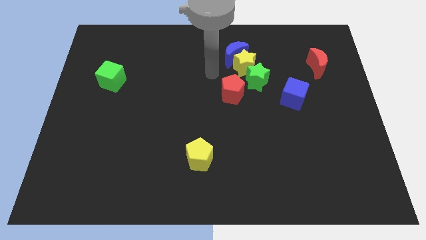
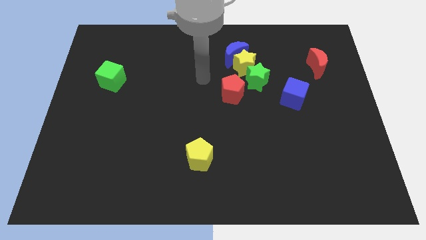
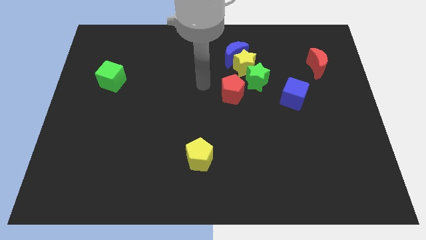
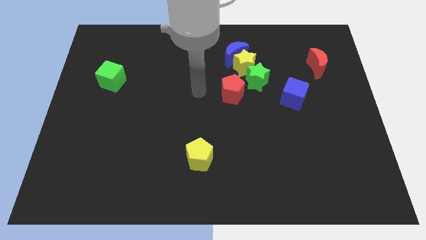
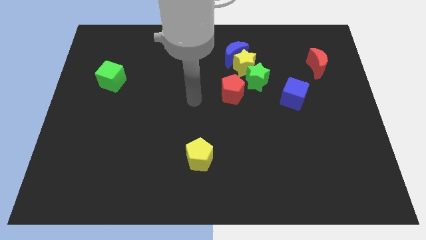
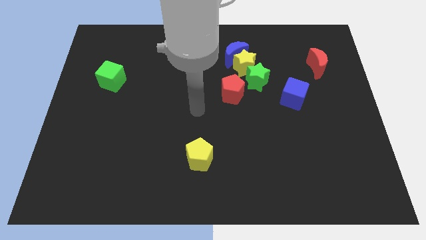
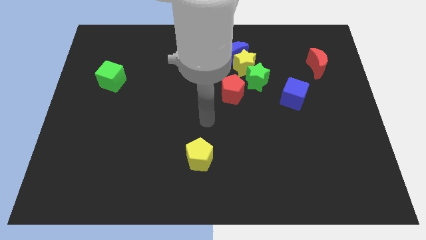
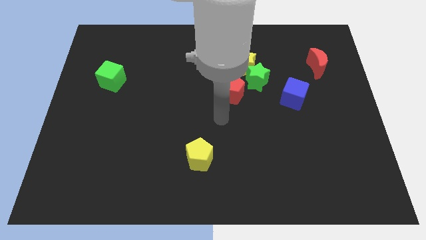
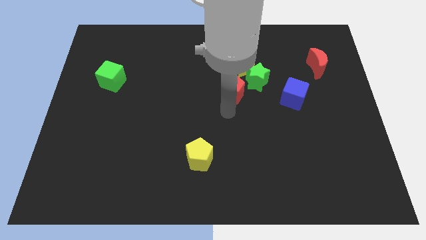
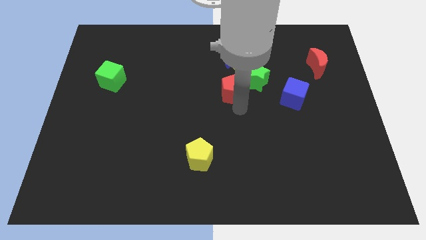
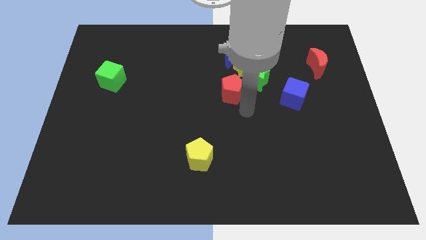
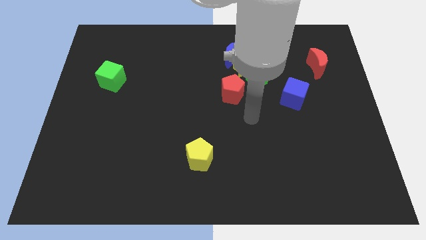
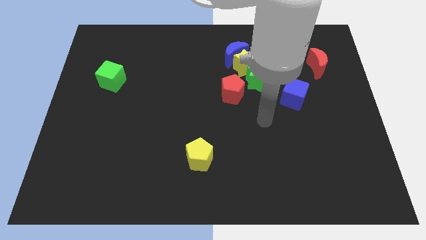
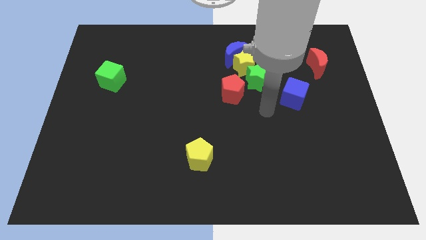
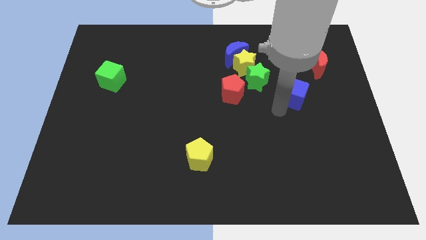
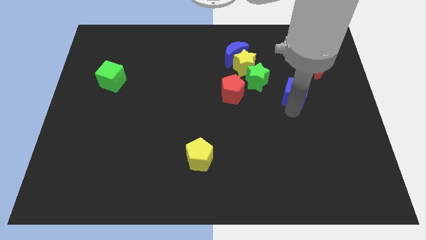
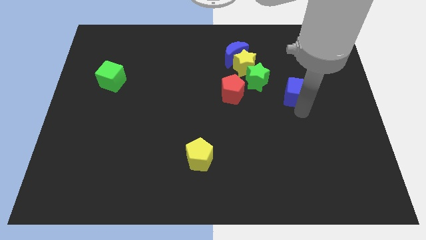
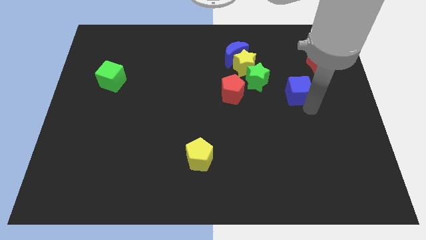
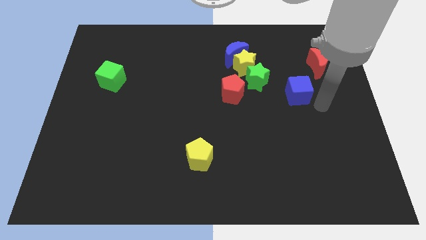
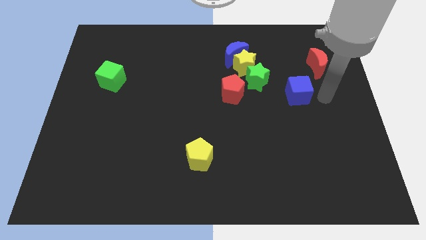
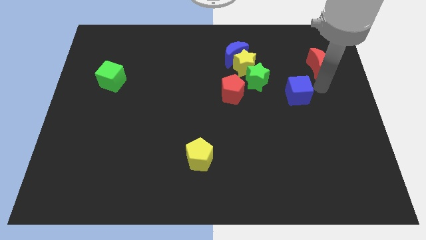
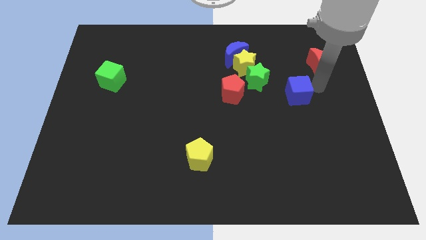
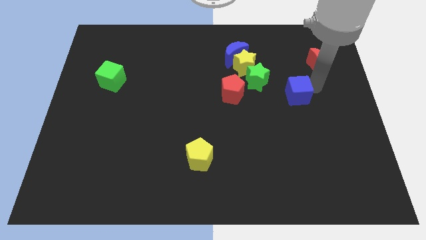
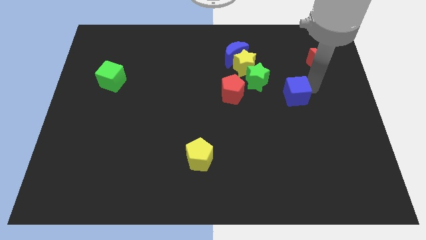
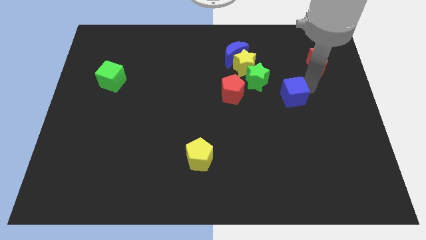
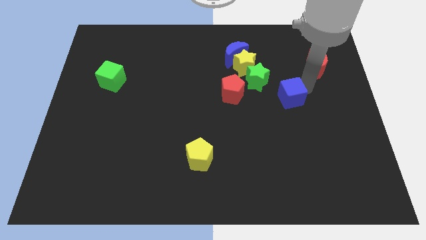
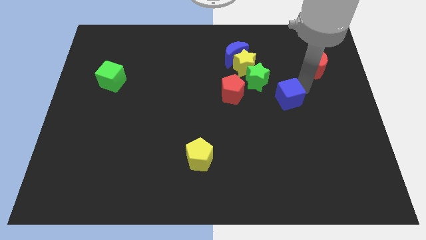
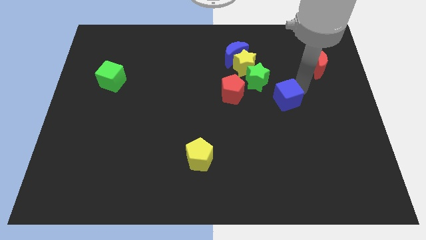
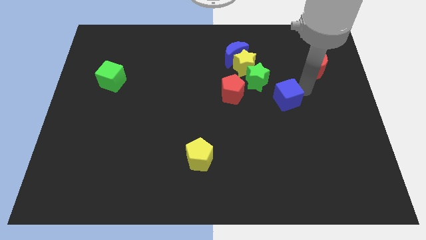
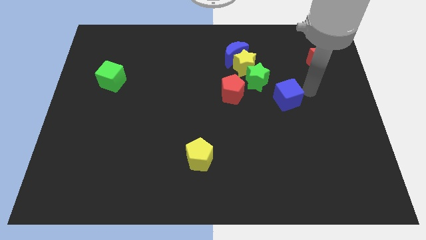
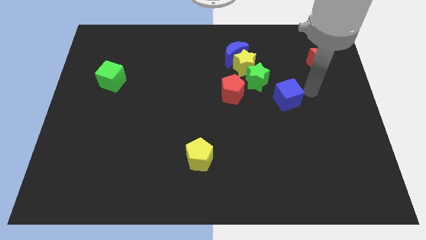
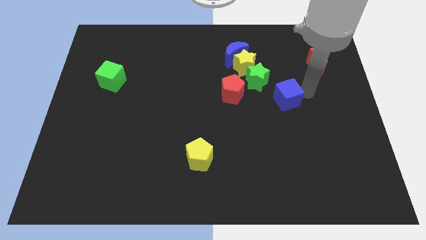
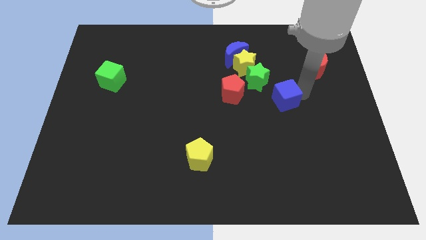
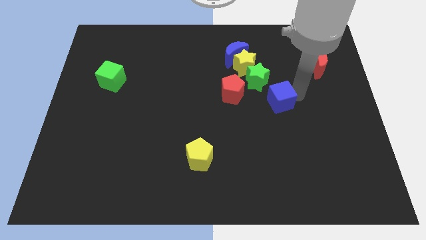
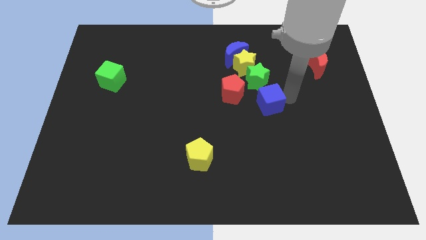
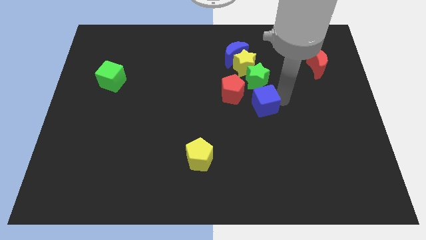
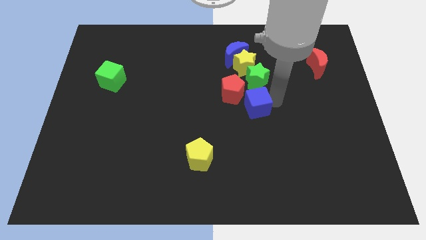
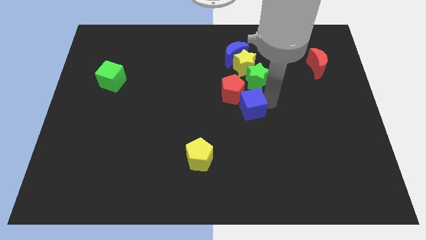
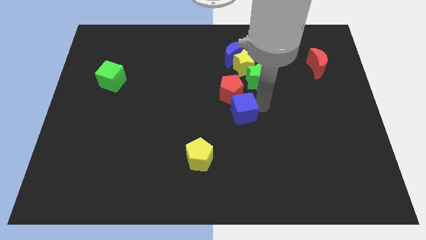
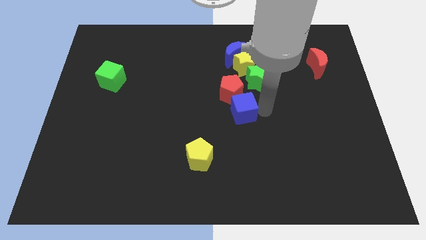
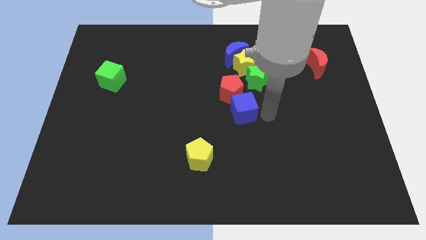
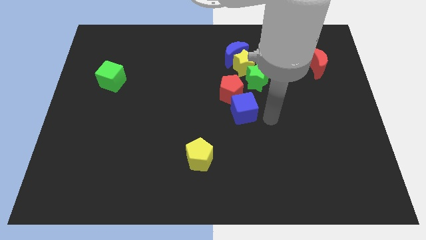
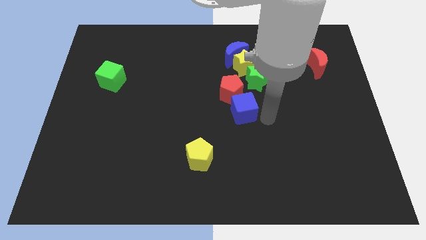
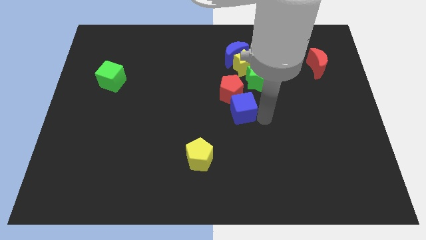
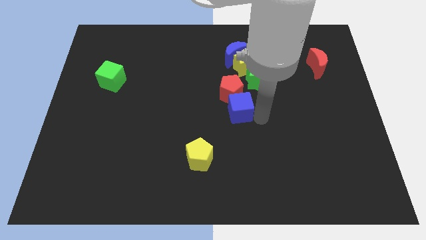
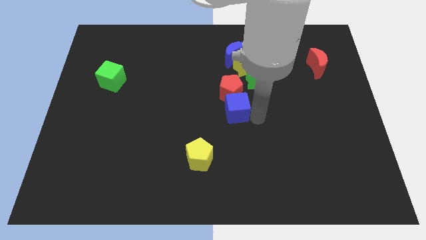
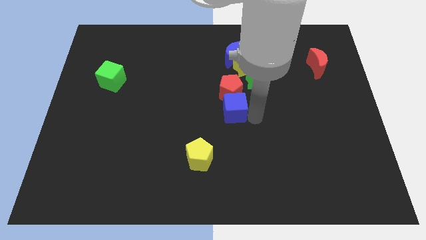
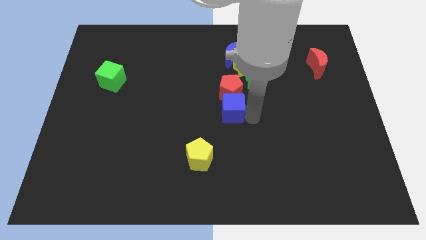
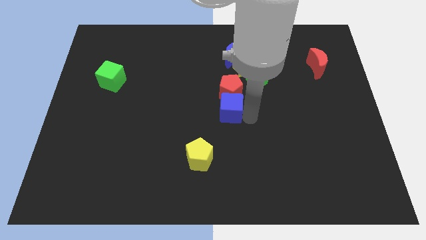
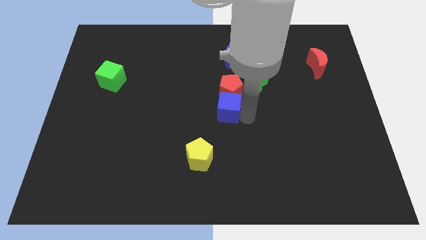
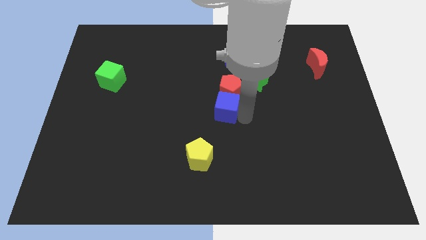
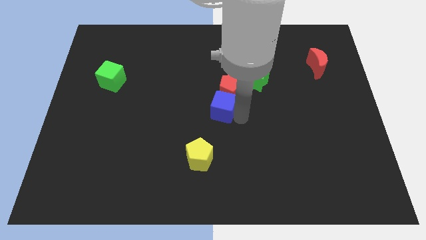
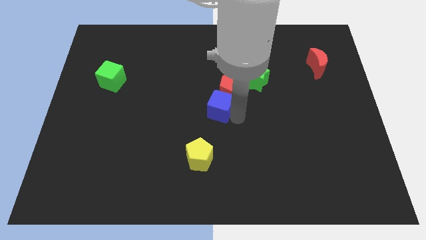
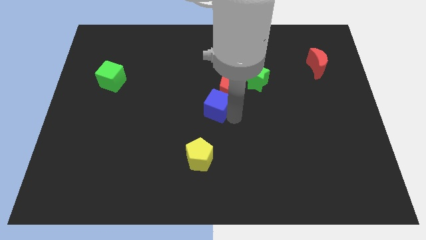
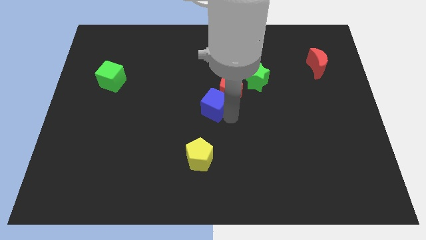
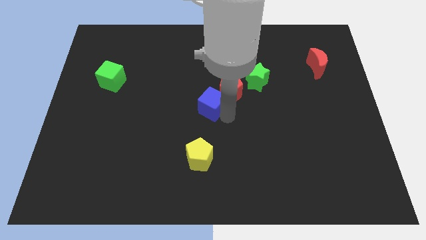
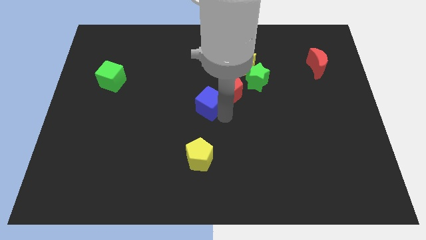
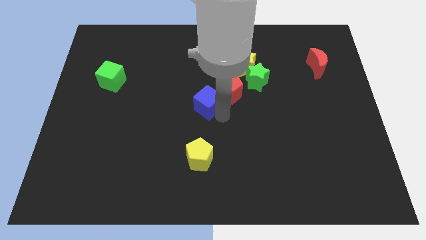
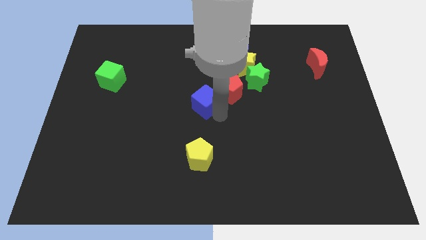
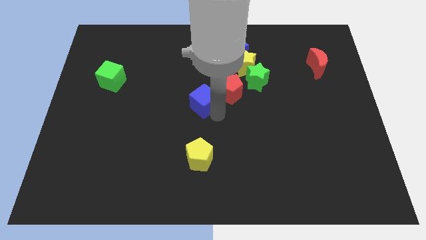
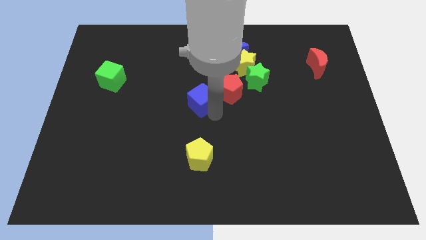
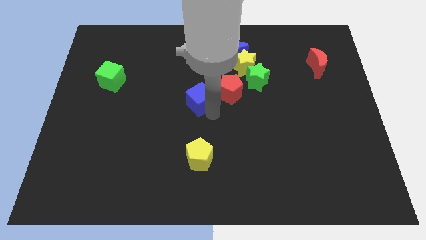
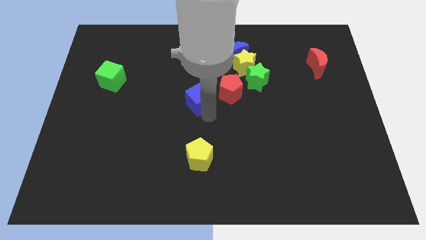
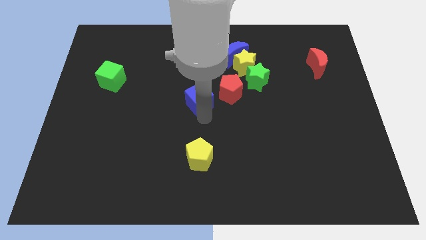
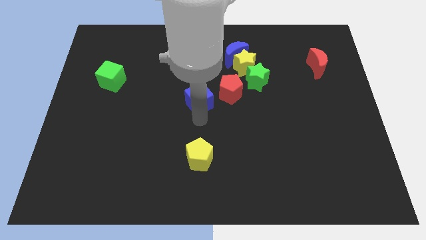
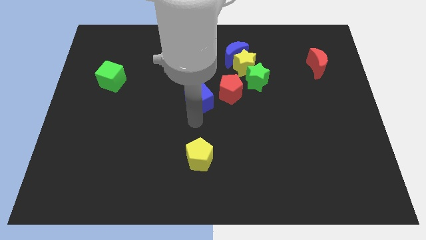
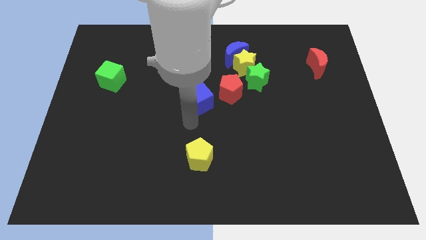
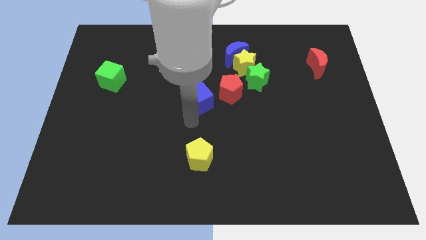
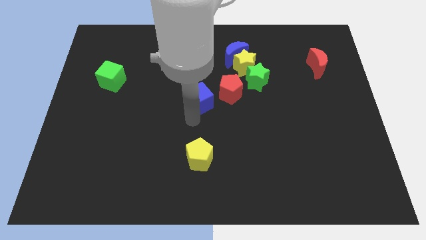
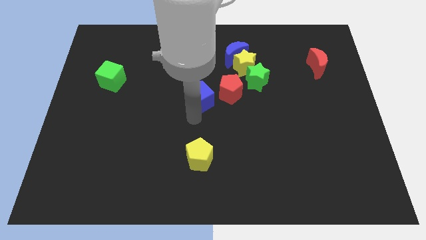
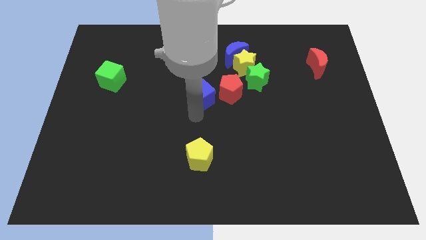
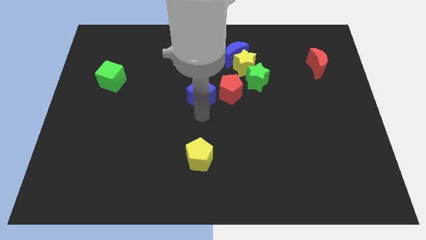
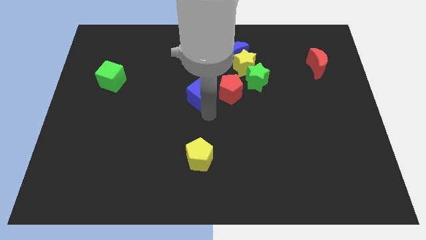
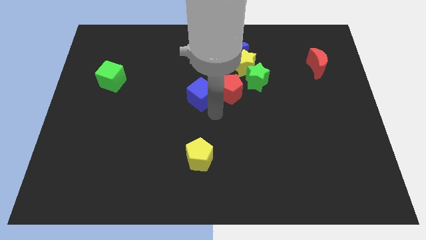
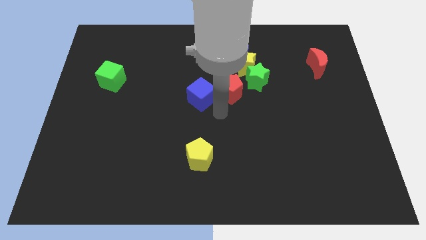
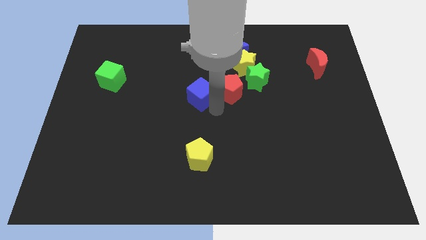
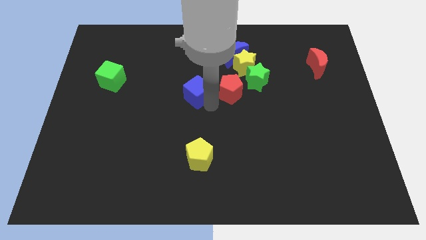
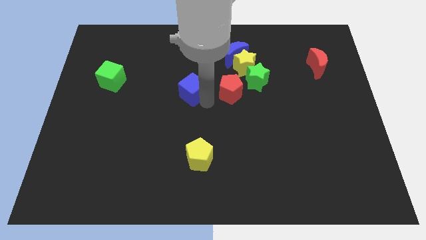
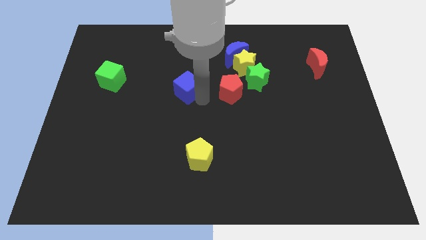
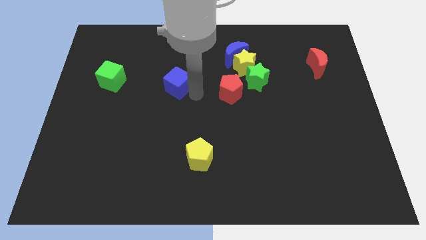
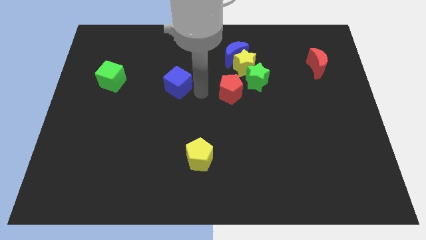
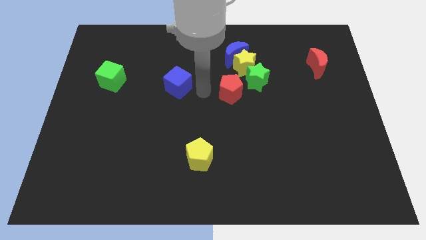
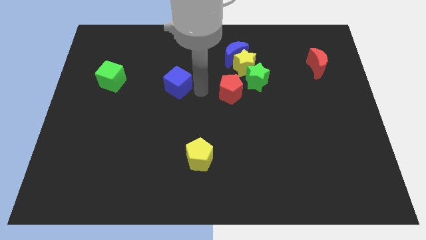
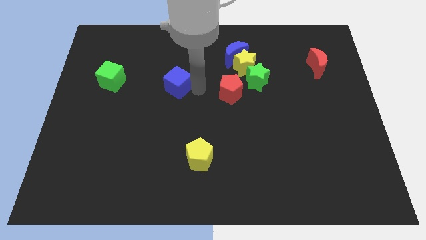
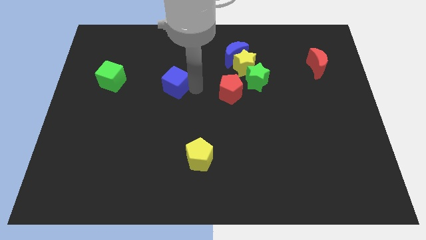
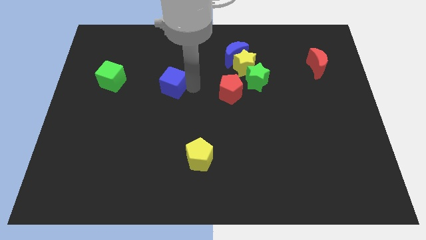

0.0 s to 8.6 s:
push the blue cube just right of the green cube
